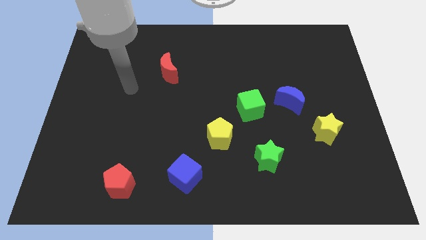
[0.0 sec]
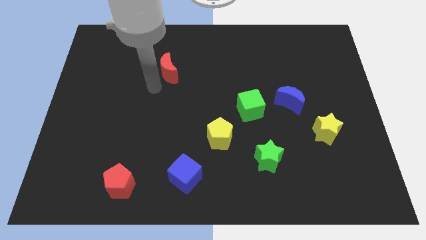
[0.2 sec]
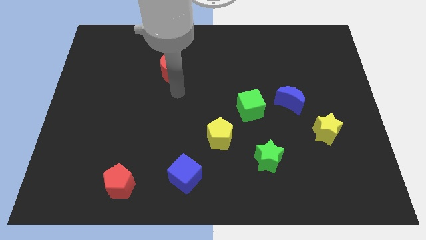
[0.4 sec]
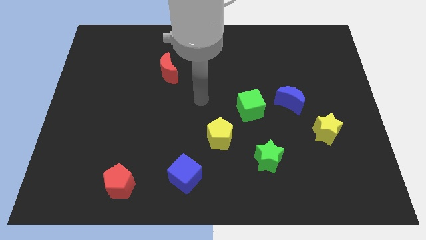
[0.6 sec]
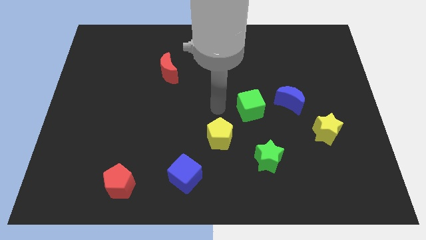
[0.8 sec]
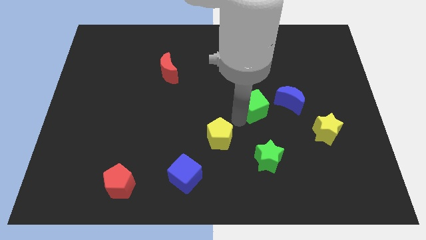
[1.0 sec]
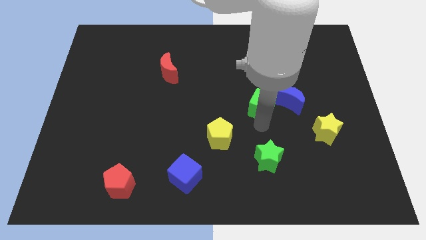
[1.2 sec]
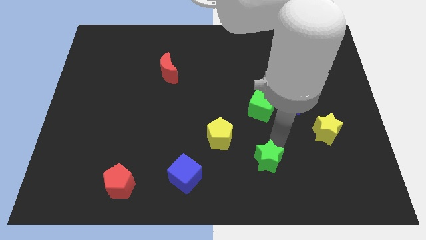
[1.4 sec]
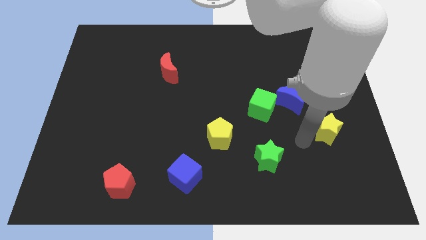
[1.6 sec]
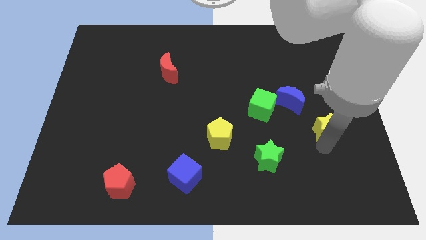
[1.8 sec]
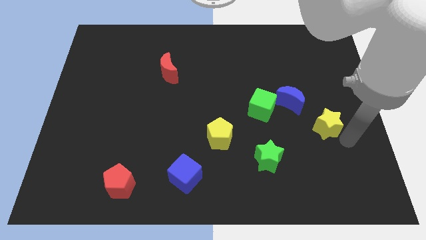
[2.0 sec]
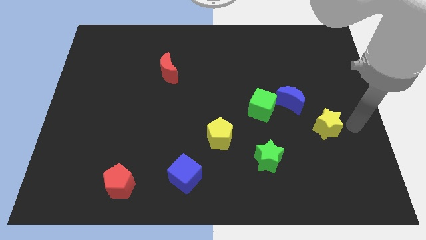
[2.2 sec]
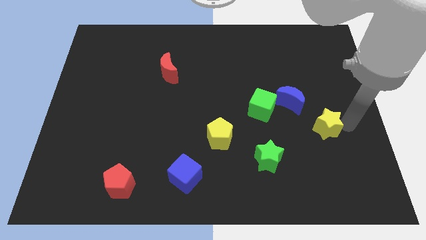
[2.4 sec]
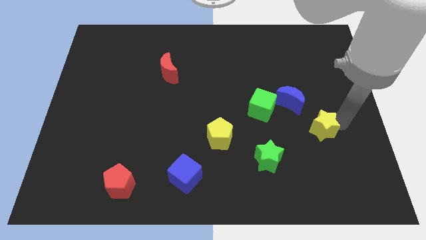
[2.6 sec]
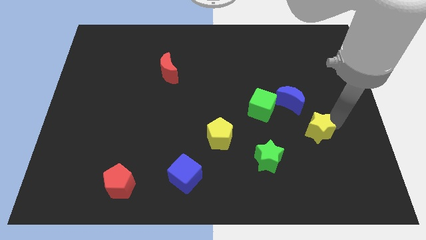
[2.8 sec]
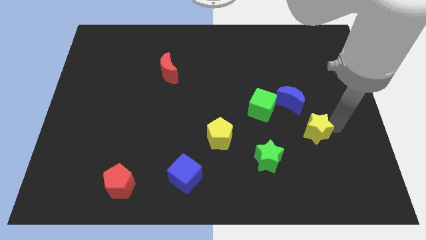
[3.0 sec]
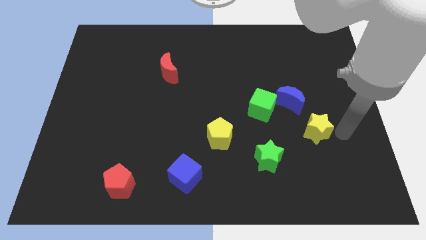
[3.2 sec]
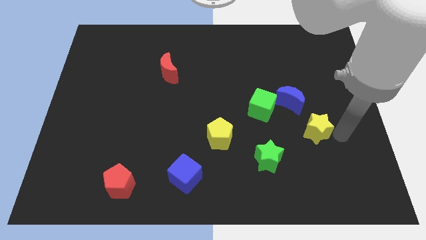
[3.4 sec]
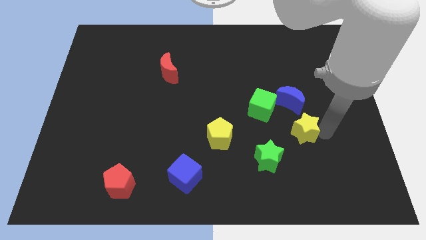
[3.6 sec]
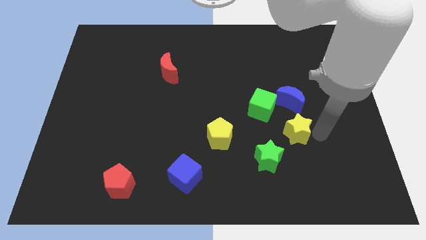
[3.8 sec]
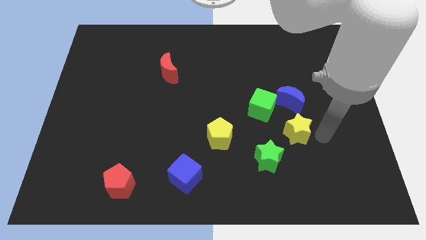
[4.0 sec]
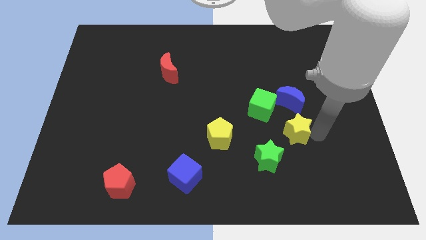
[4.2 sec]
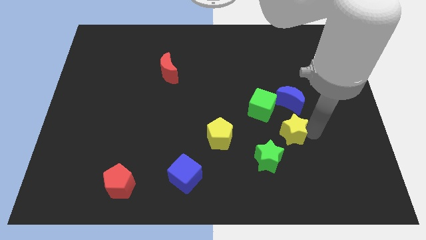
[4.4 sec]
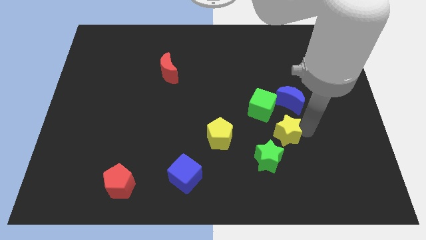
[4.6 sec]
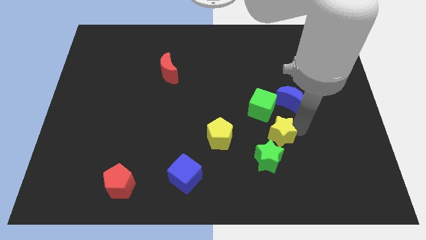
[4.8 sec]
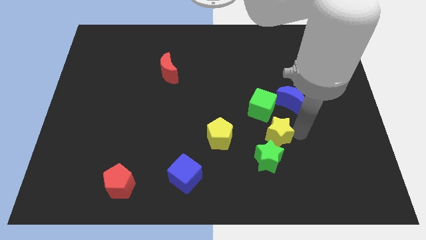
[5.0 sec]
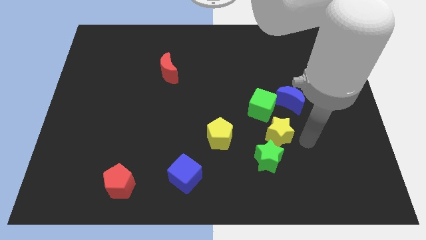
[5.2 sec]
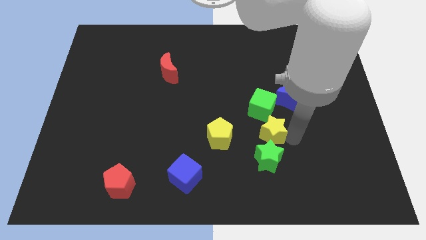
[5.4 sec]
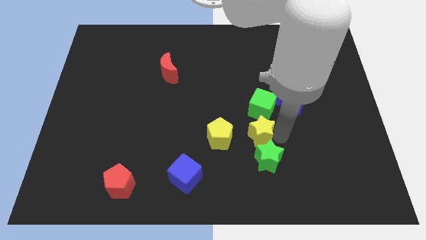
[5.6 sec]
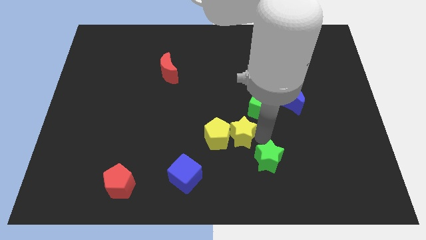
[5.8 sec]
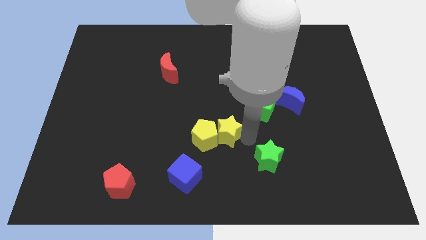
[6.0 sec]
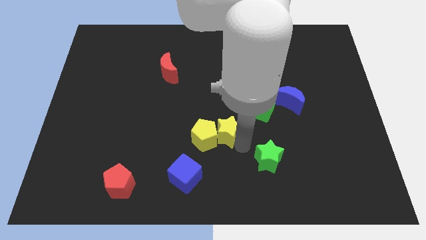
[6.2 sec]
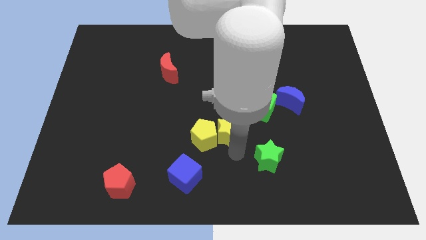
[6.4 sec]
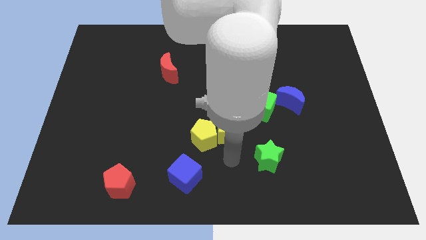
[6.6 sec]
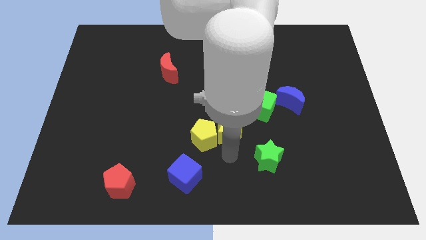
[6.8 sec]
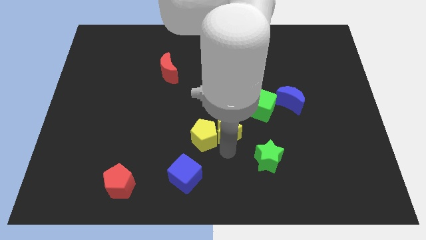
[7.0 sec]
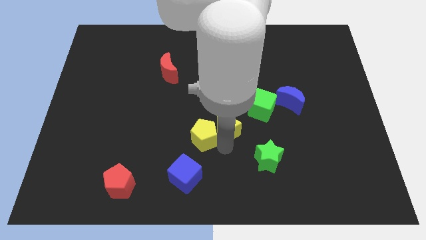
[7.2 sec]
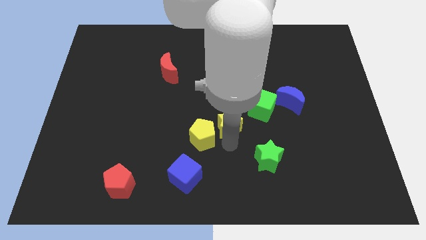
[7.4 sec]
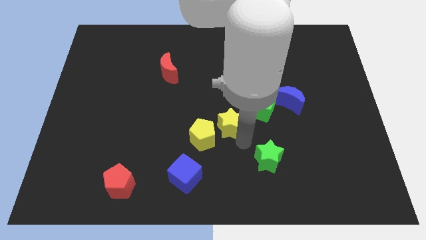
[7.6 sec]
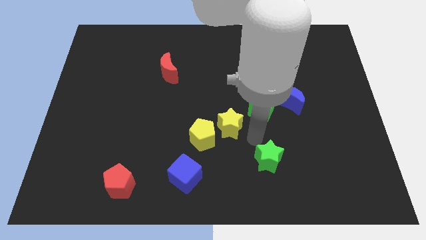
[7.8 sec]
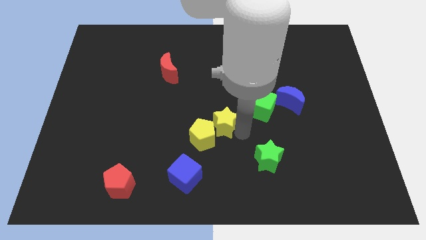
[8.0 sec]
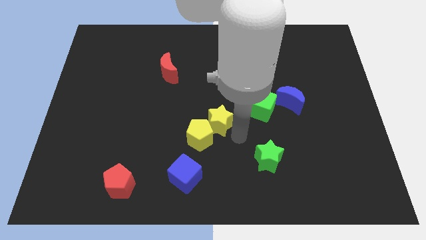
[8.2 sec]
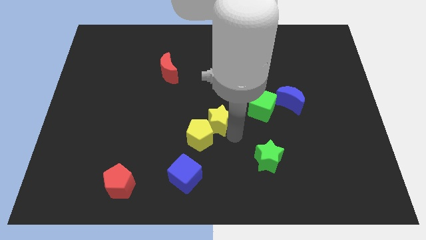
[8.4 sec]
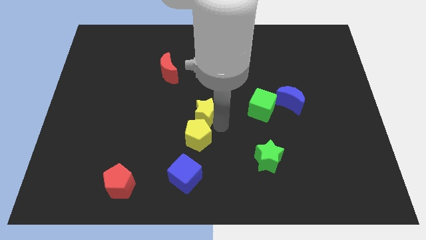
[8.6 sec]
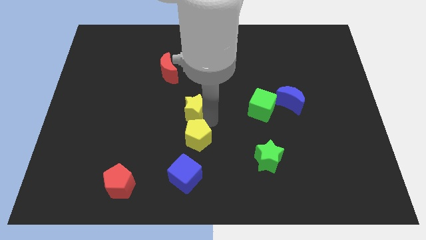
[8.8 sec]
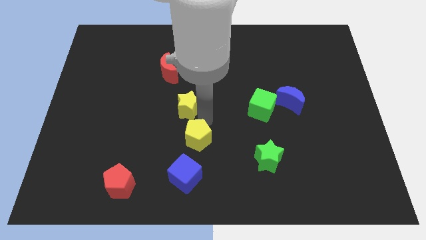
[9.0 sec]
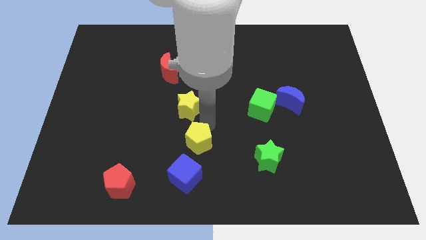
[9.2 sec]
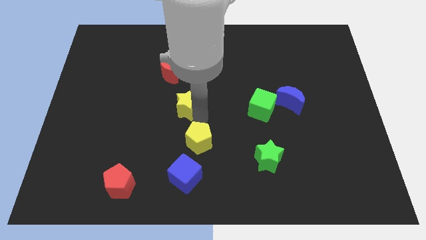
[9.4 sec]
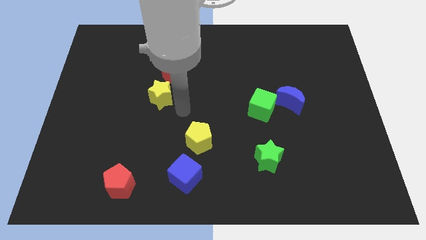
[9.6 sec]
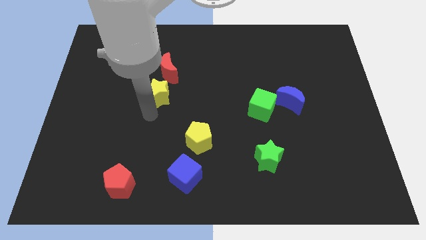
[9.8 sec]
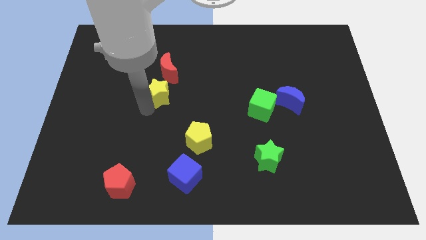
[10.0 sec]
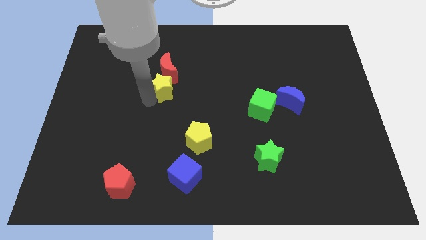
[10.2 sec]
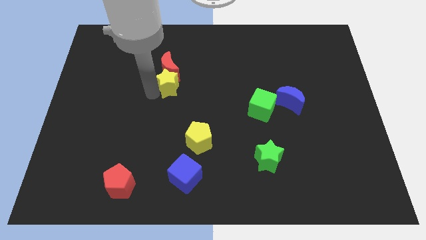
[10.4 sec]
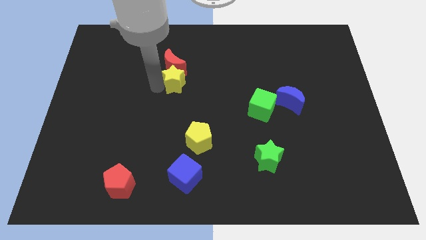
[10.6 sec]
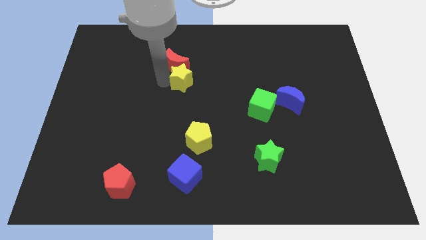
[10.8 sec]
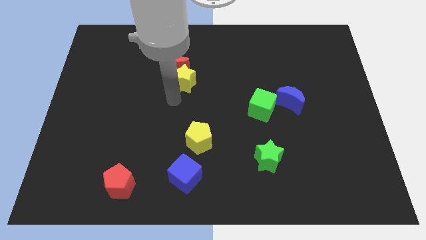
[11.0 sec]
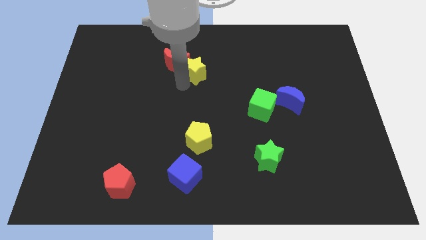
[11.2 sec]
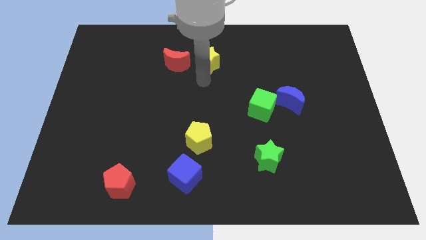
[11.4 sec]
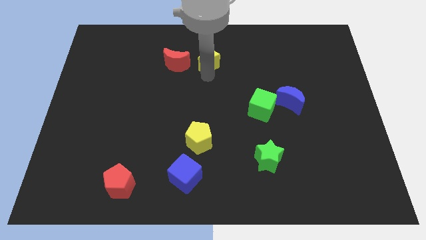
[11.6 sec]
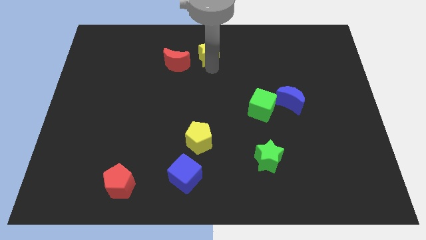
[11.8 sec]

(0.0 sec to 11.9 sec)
put the yellow star to the top

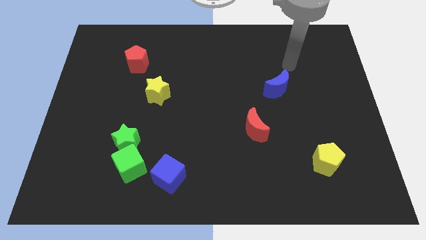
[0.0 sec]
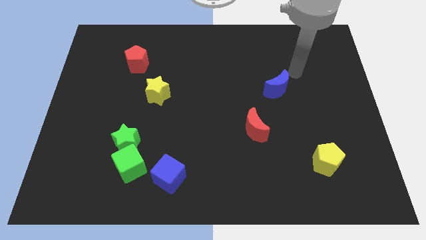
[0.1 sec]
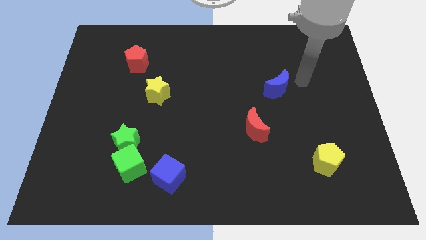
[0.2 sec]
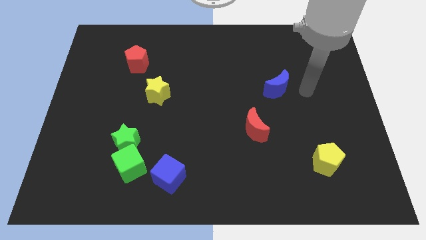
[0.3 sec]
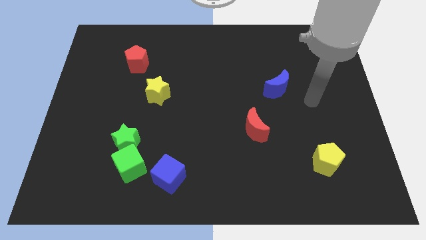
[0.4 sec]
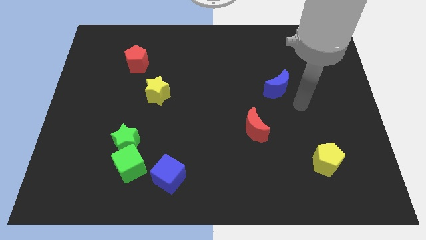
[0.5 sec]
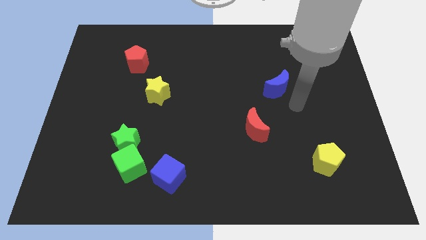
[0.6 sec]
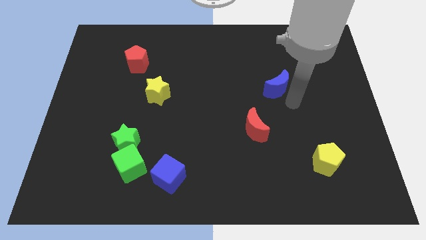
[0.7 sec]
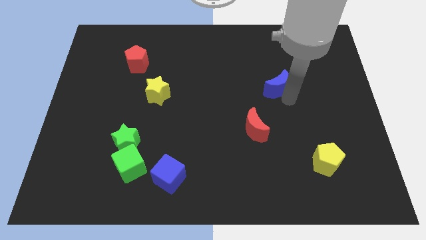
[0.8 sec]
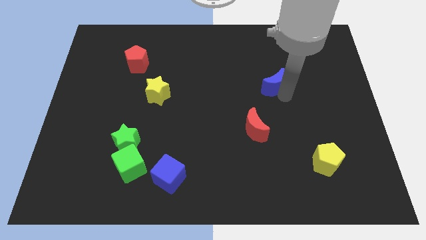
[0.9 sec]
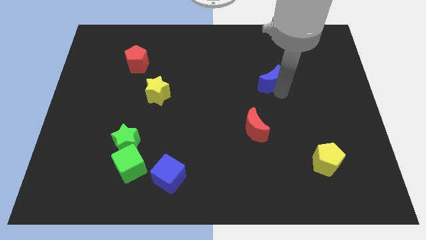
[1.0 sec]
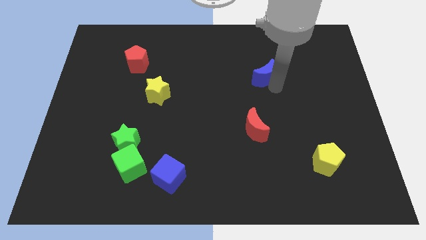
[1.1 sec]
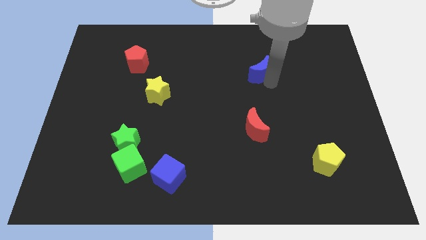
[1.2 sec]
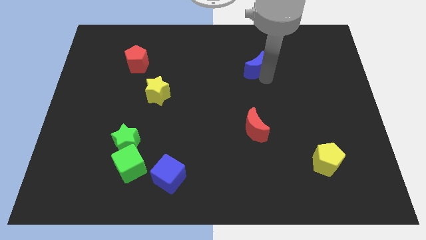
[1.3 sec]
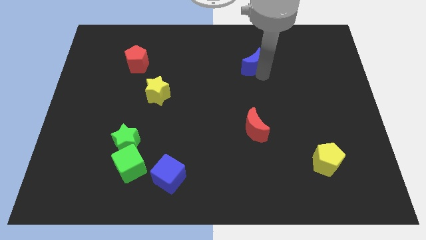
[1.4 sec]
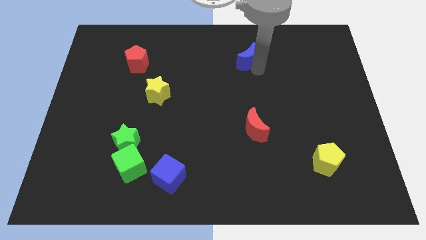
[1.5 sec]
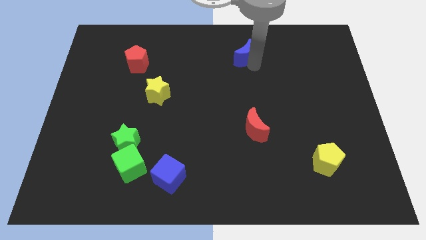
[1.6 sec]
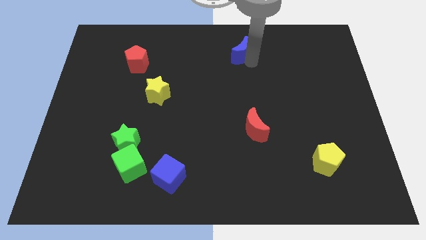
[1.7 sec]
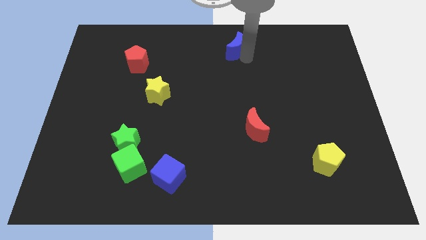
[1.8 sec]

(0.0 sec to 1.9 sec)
push the blue moon to the top side
